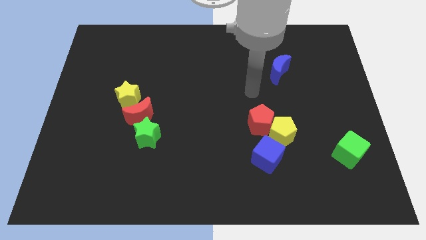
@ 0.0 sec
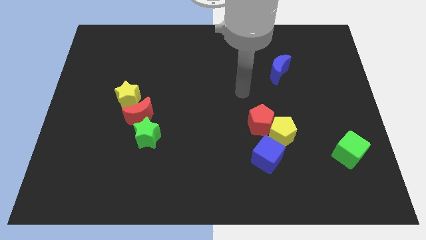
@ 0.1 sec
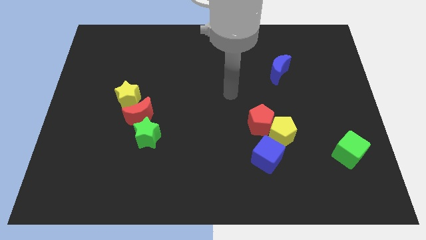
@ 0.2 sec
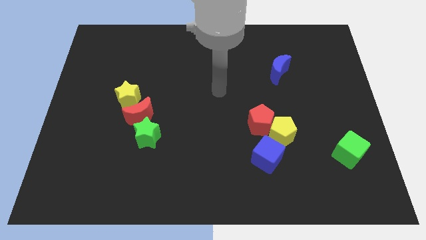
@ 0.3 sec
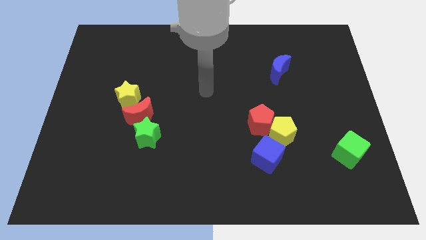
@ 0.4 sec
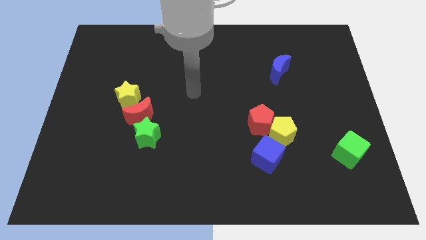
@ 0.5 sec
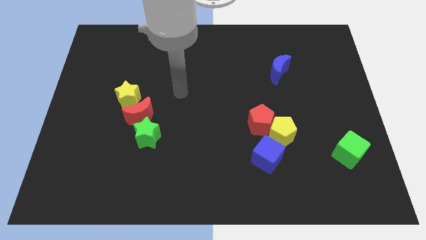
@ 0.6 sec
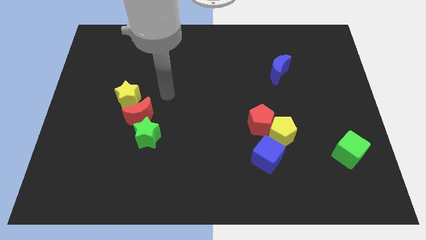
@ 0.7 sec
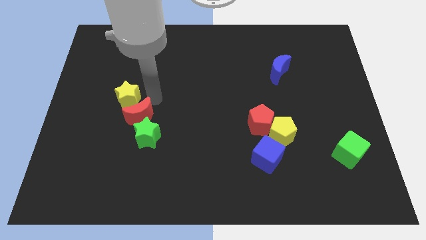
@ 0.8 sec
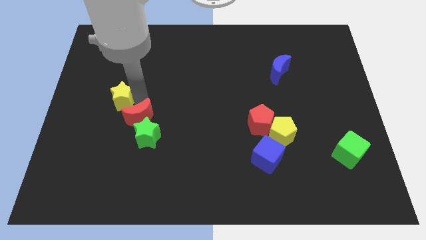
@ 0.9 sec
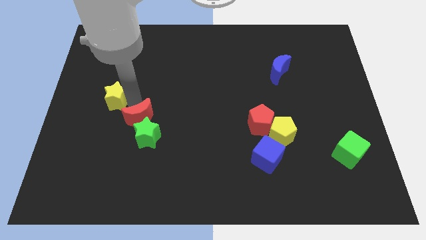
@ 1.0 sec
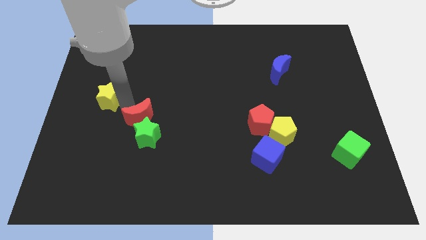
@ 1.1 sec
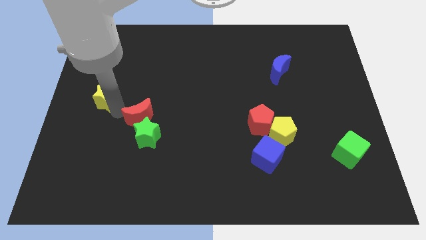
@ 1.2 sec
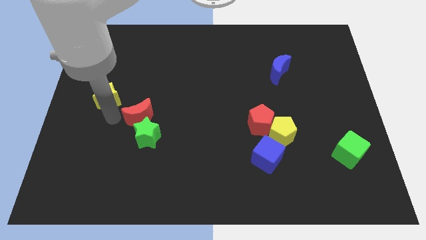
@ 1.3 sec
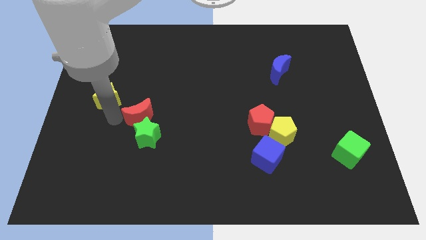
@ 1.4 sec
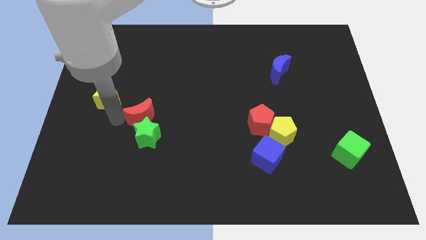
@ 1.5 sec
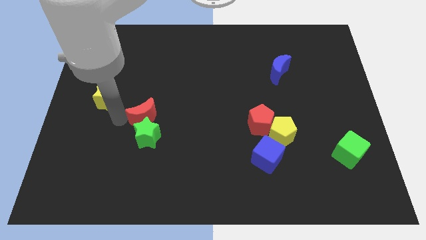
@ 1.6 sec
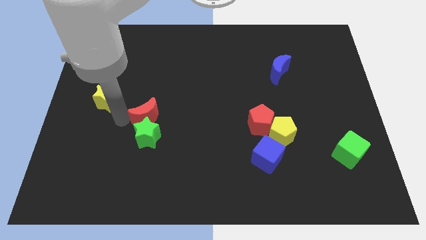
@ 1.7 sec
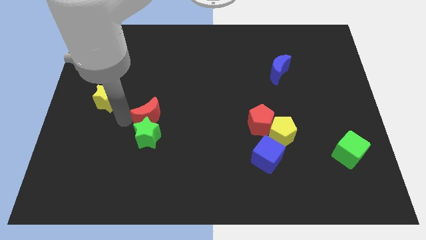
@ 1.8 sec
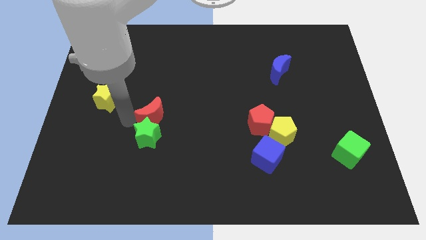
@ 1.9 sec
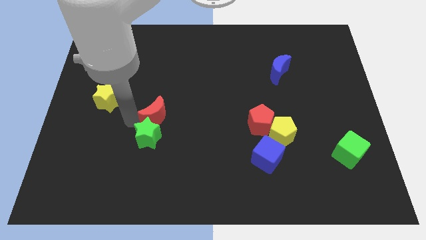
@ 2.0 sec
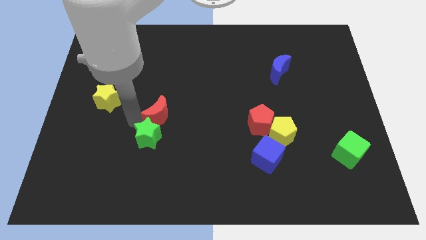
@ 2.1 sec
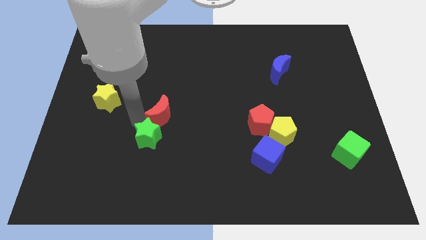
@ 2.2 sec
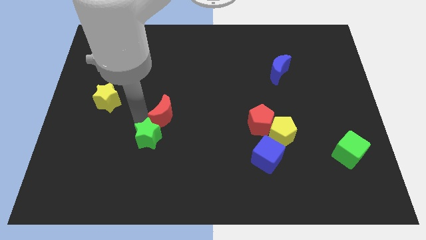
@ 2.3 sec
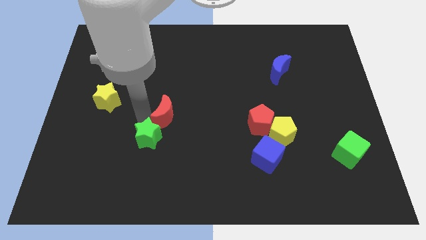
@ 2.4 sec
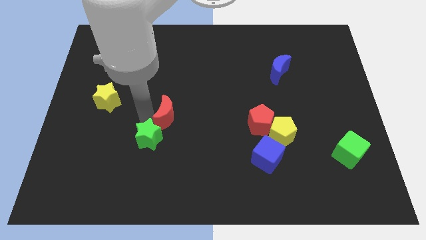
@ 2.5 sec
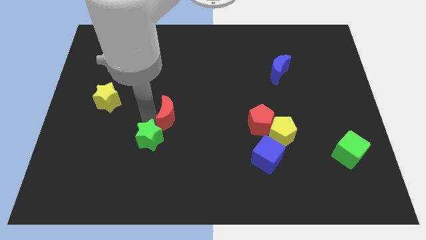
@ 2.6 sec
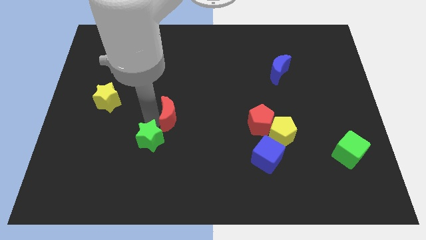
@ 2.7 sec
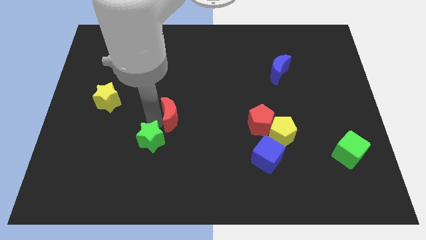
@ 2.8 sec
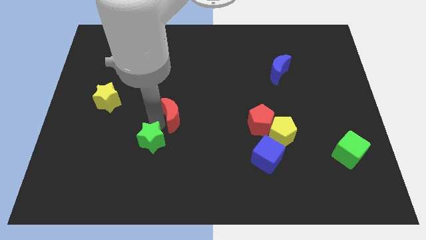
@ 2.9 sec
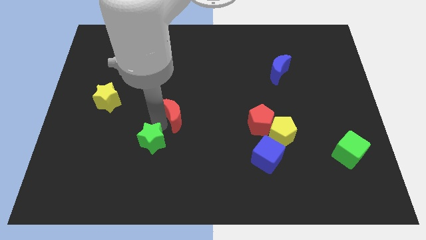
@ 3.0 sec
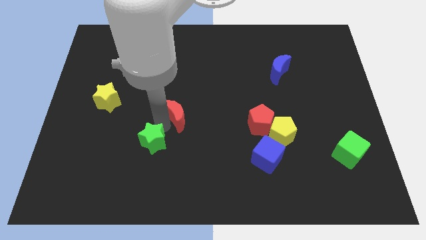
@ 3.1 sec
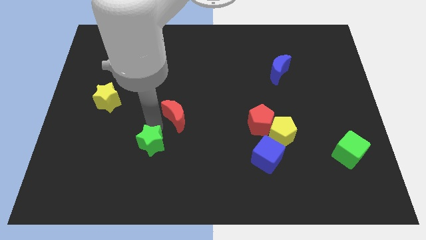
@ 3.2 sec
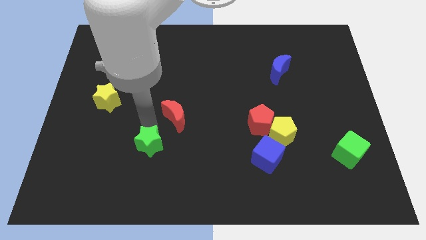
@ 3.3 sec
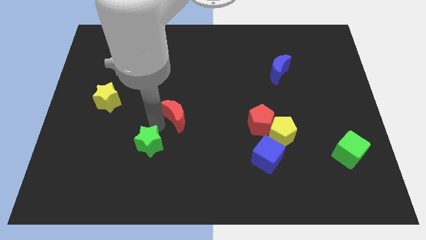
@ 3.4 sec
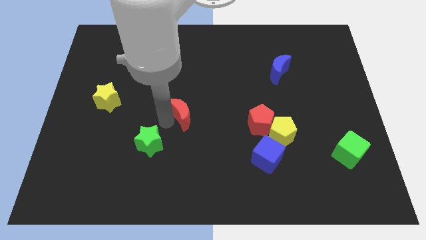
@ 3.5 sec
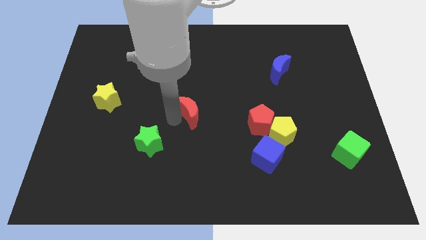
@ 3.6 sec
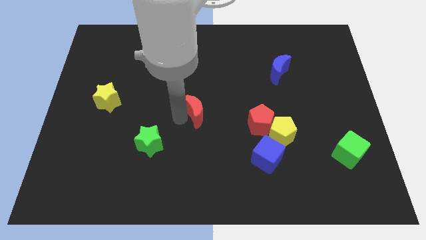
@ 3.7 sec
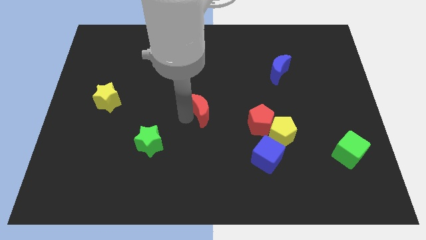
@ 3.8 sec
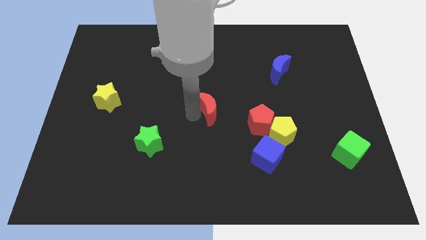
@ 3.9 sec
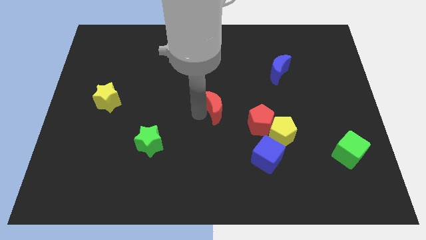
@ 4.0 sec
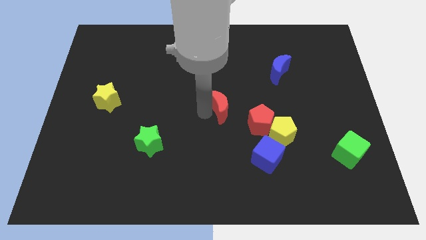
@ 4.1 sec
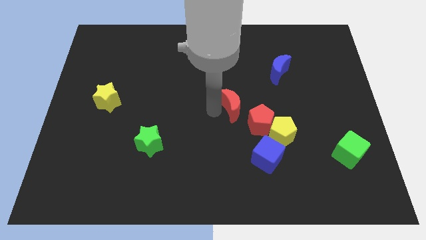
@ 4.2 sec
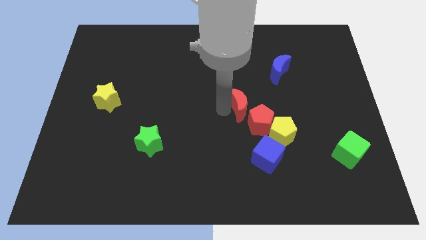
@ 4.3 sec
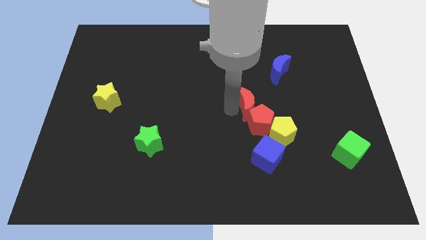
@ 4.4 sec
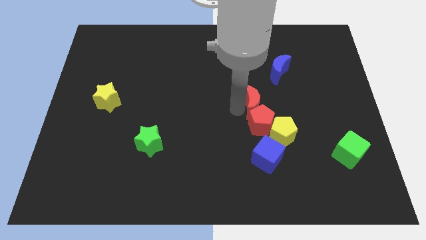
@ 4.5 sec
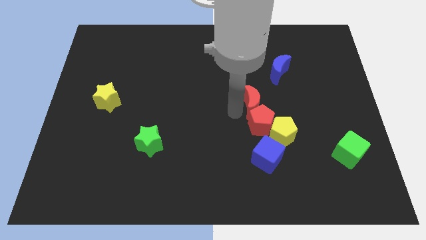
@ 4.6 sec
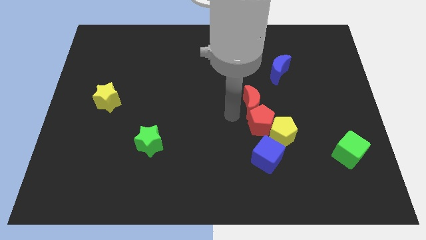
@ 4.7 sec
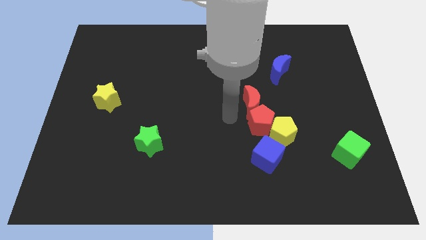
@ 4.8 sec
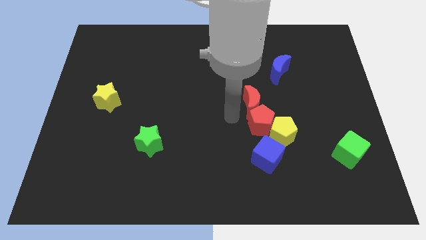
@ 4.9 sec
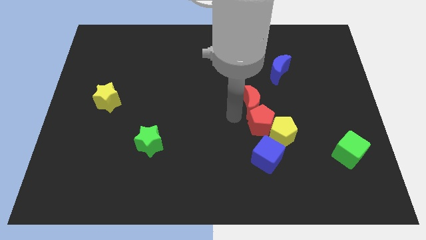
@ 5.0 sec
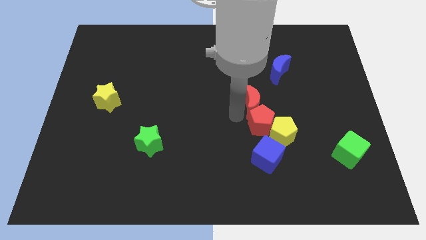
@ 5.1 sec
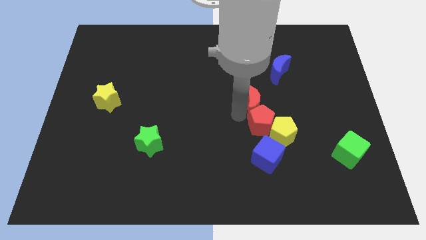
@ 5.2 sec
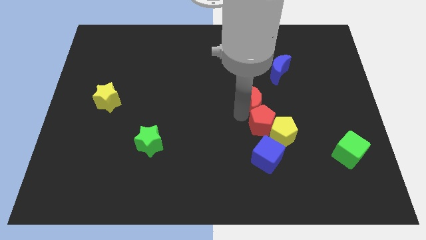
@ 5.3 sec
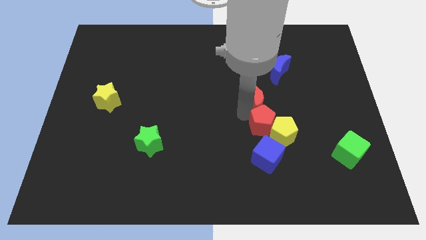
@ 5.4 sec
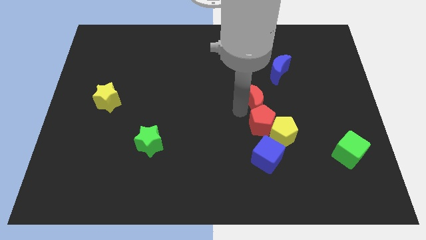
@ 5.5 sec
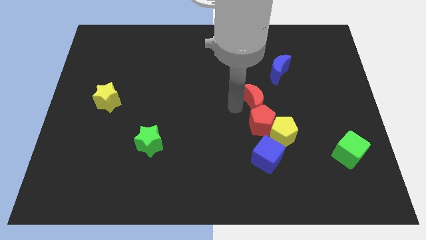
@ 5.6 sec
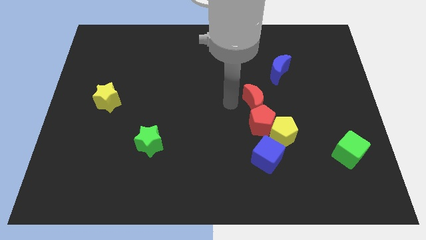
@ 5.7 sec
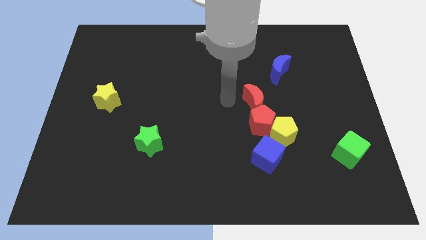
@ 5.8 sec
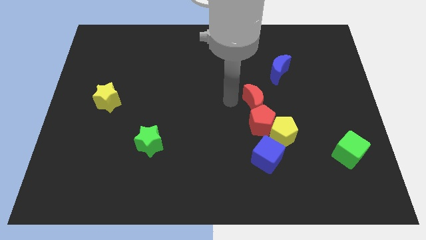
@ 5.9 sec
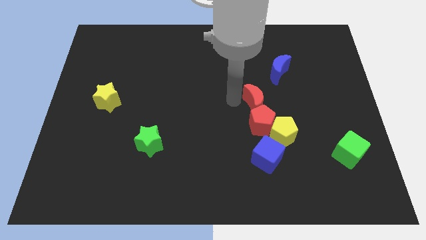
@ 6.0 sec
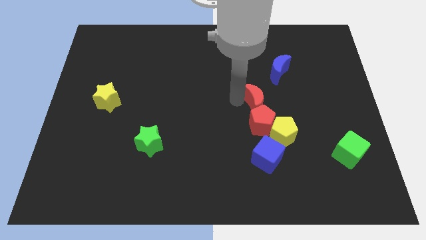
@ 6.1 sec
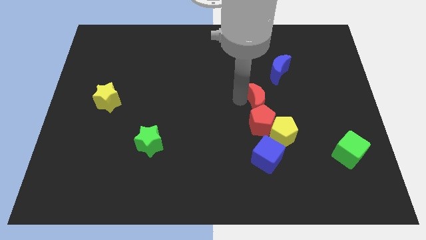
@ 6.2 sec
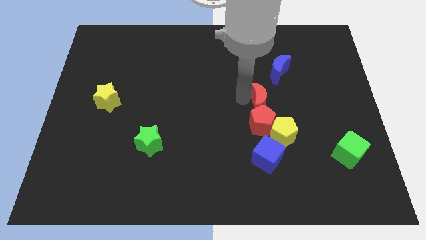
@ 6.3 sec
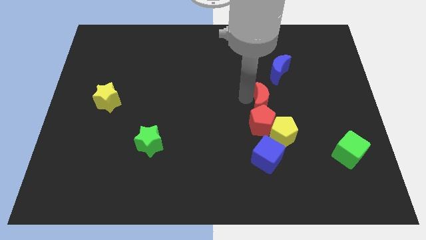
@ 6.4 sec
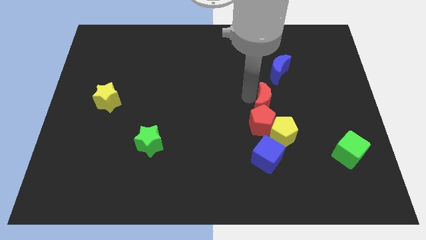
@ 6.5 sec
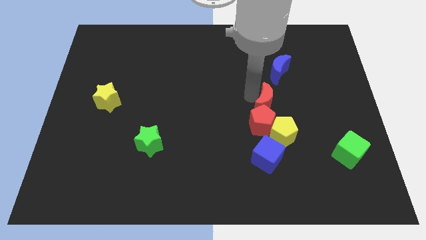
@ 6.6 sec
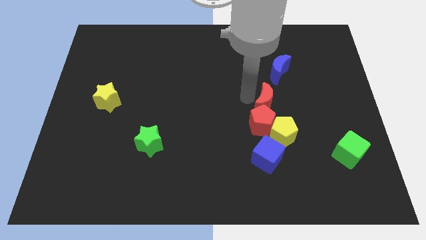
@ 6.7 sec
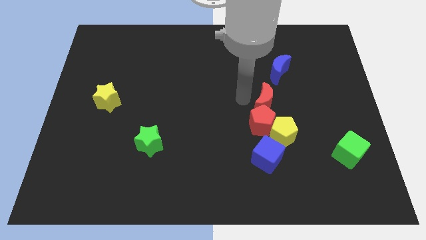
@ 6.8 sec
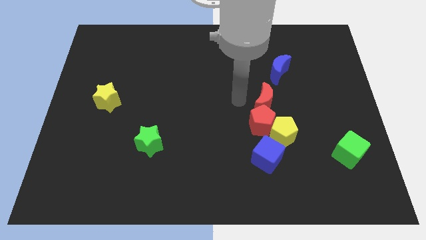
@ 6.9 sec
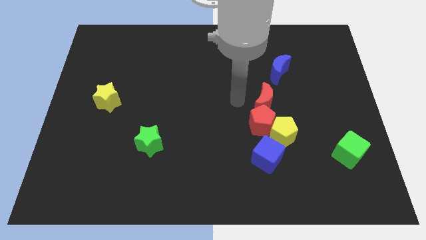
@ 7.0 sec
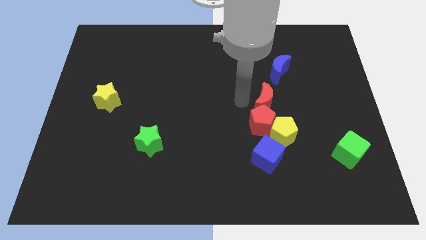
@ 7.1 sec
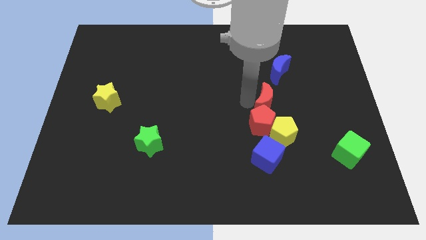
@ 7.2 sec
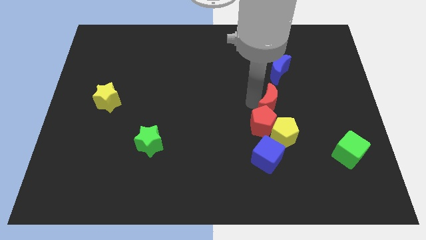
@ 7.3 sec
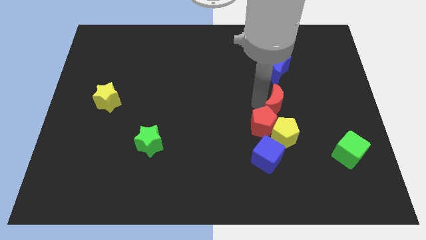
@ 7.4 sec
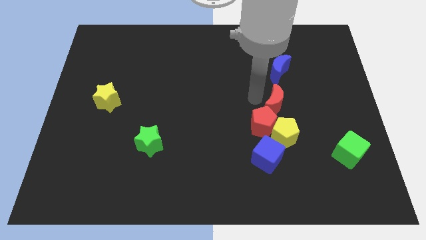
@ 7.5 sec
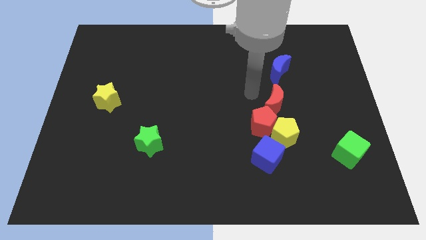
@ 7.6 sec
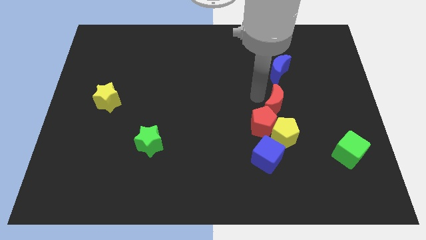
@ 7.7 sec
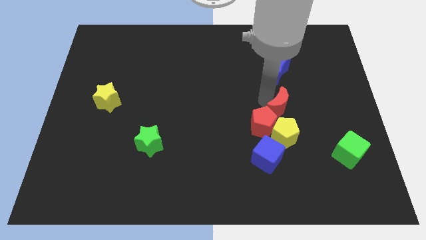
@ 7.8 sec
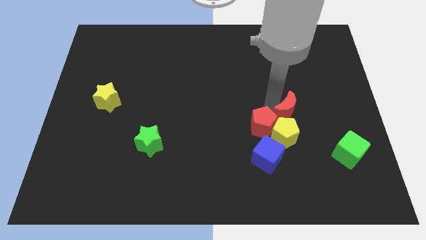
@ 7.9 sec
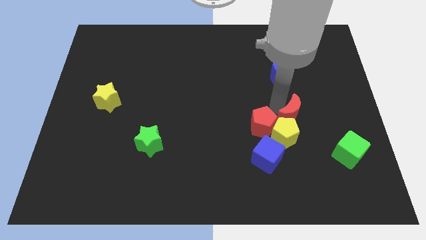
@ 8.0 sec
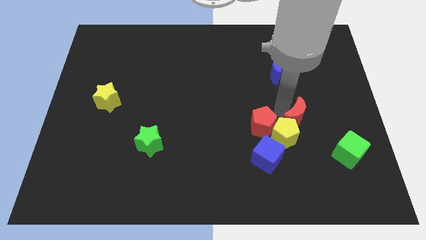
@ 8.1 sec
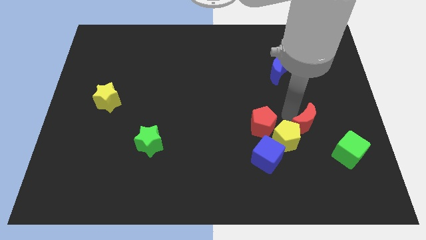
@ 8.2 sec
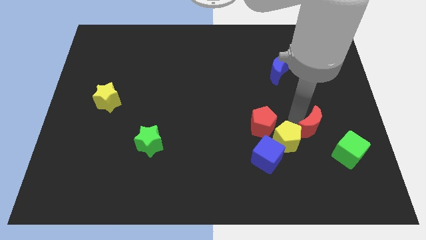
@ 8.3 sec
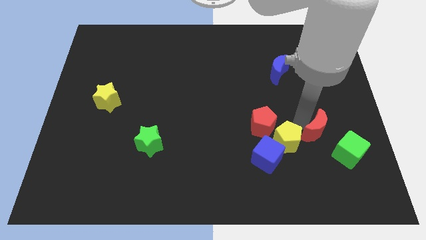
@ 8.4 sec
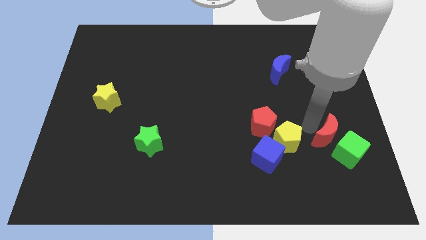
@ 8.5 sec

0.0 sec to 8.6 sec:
slide the red moon to the green cube
